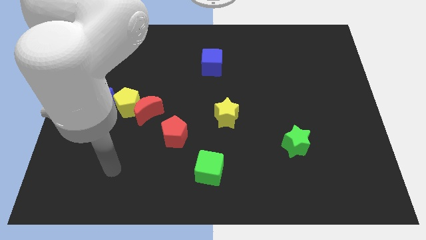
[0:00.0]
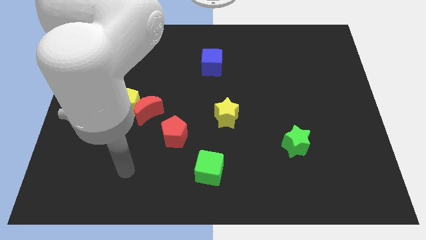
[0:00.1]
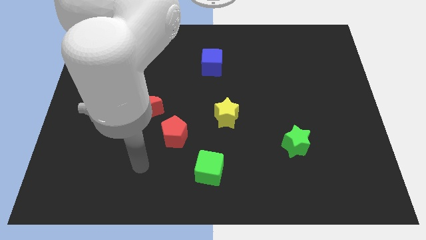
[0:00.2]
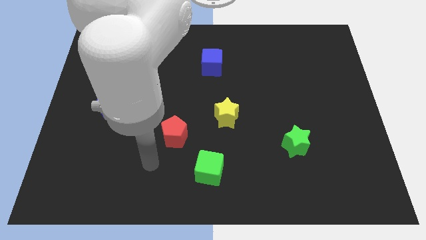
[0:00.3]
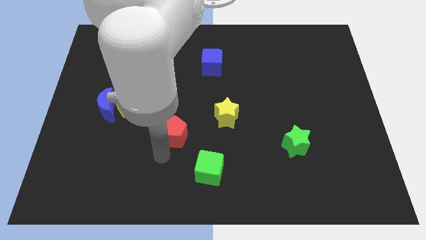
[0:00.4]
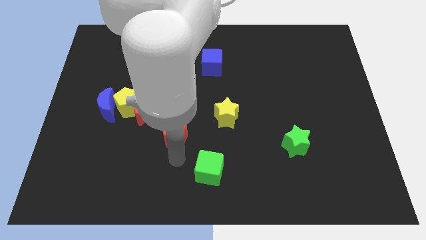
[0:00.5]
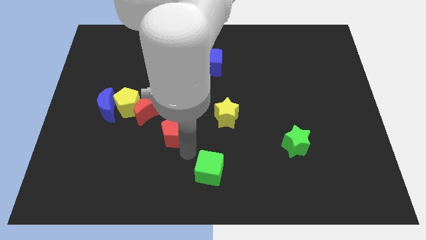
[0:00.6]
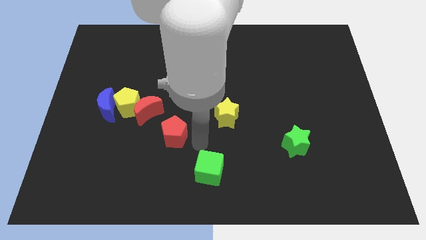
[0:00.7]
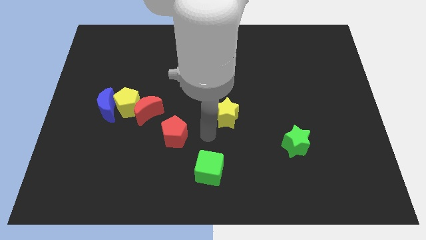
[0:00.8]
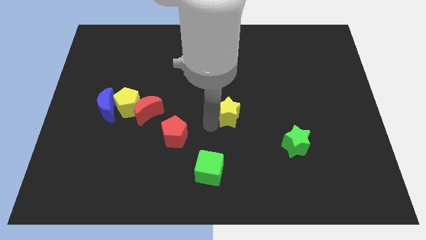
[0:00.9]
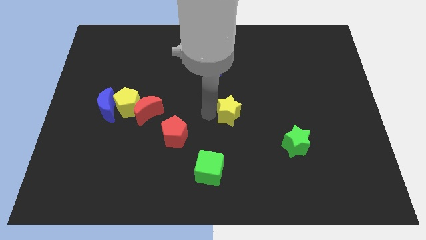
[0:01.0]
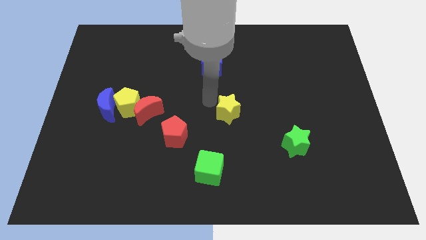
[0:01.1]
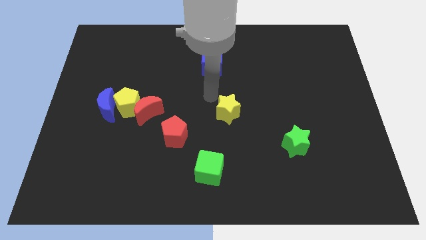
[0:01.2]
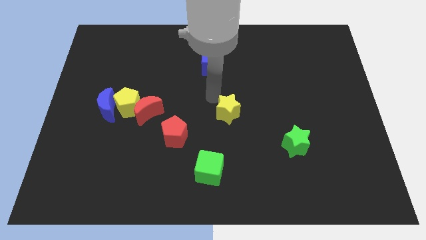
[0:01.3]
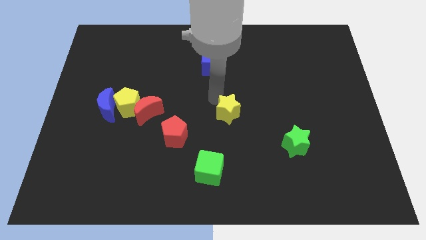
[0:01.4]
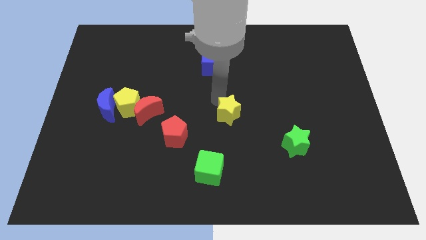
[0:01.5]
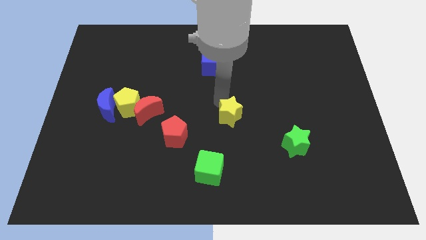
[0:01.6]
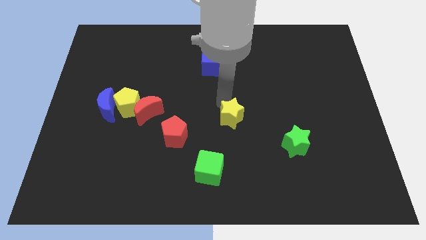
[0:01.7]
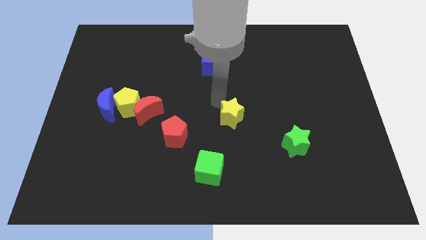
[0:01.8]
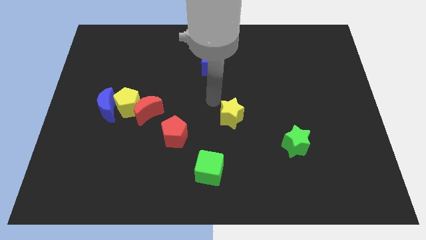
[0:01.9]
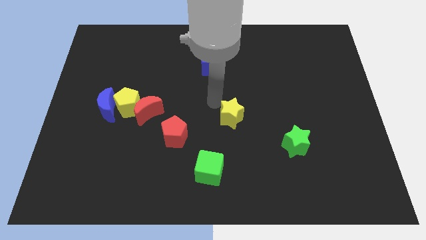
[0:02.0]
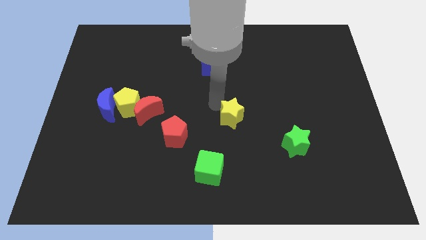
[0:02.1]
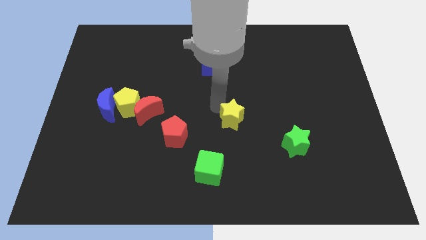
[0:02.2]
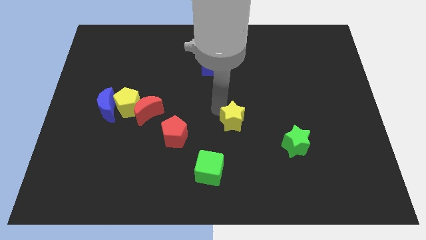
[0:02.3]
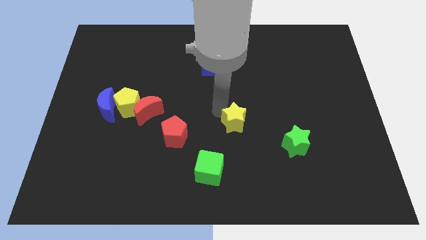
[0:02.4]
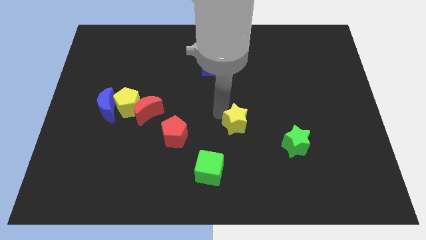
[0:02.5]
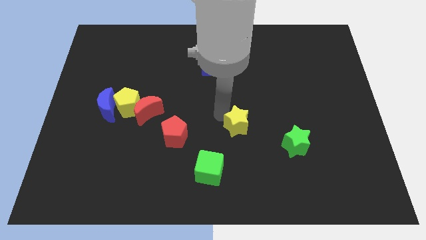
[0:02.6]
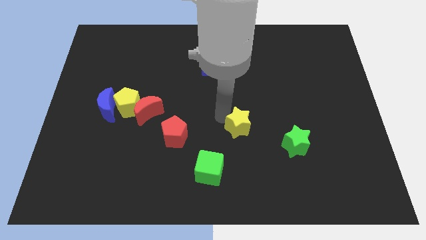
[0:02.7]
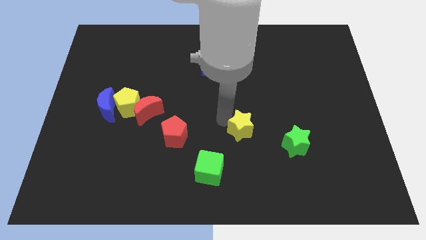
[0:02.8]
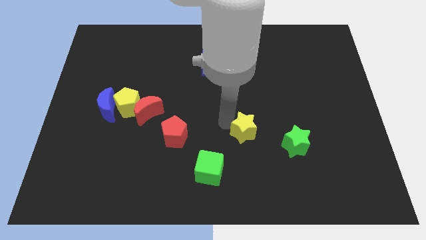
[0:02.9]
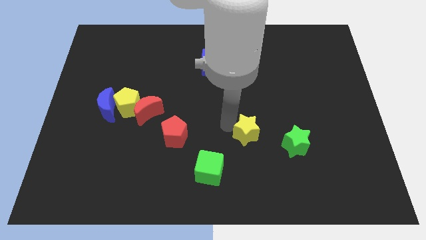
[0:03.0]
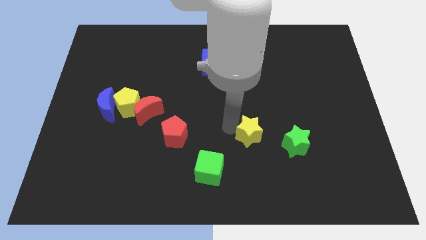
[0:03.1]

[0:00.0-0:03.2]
move the yellow star down and to the right a little

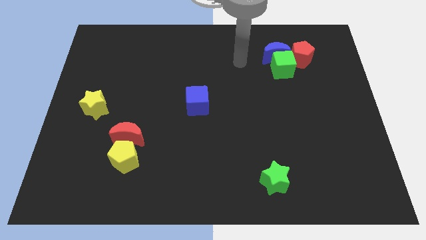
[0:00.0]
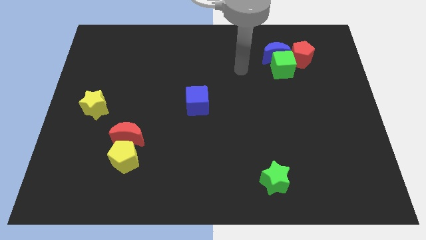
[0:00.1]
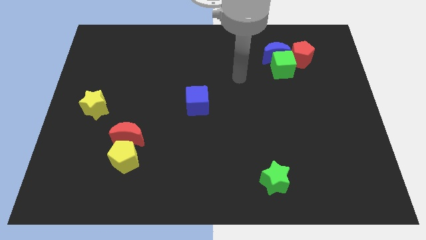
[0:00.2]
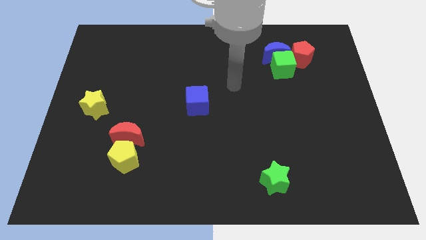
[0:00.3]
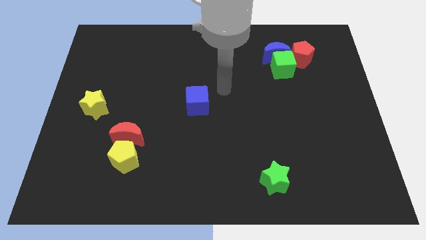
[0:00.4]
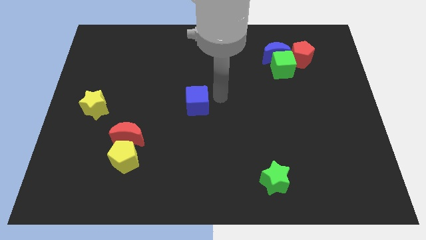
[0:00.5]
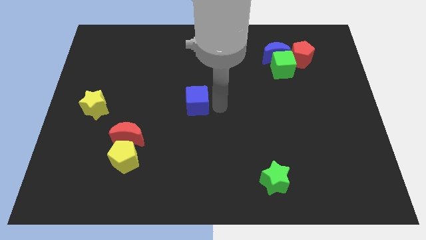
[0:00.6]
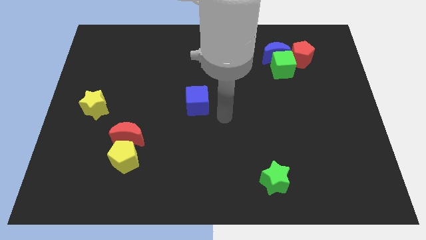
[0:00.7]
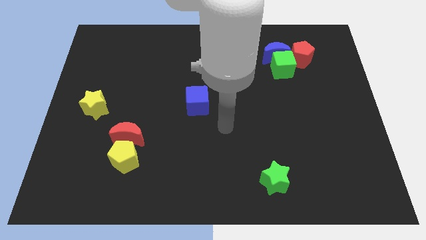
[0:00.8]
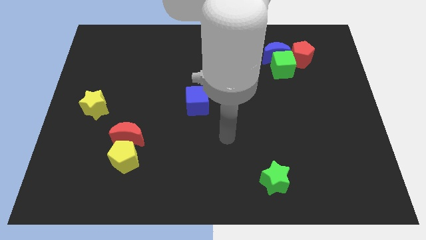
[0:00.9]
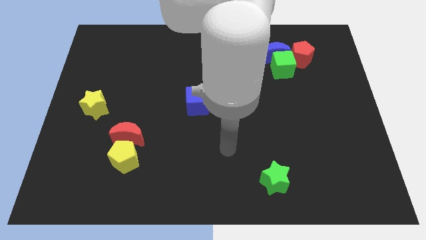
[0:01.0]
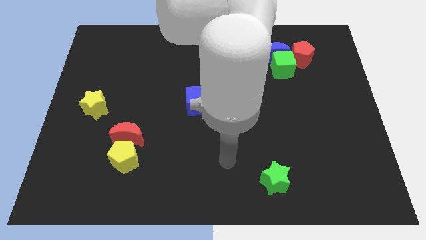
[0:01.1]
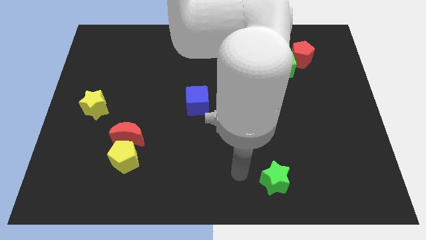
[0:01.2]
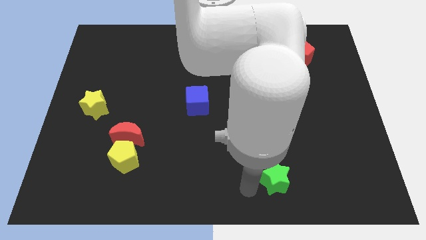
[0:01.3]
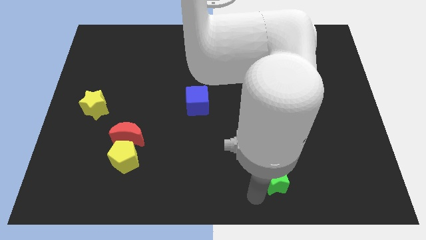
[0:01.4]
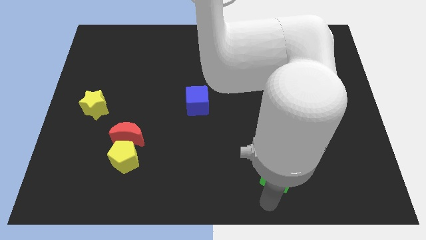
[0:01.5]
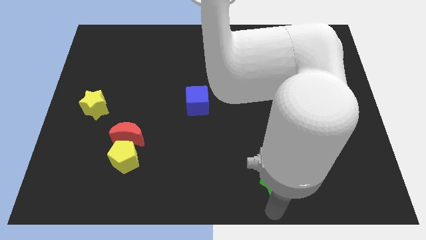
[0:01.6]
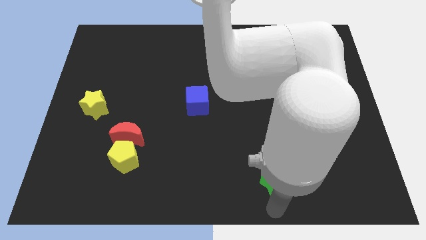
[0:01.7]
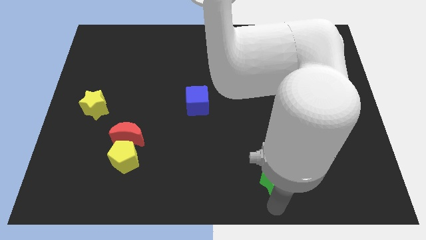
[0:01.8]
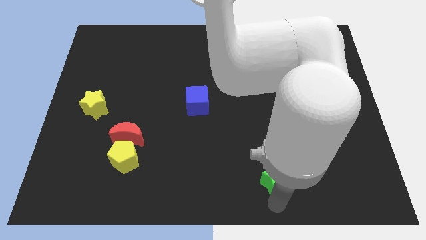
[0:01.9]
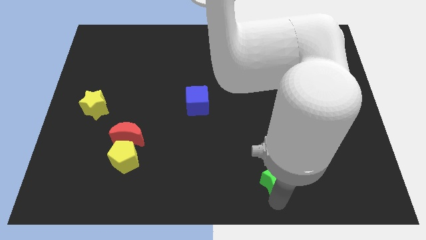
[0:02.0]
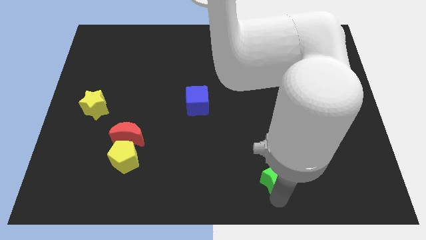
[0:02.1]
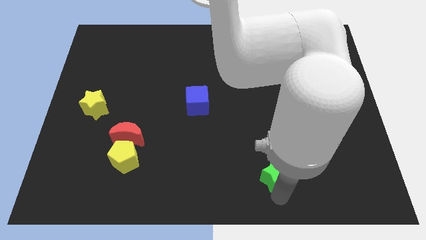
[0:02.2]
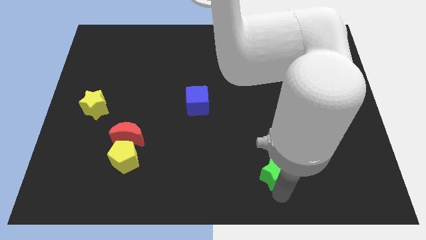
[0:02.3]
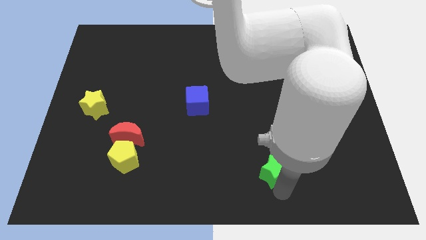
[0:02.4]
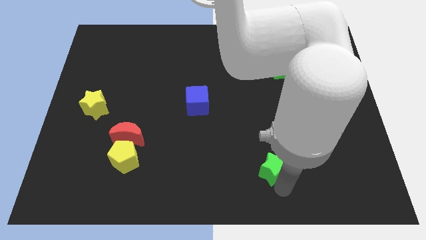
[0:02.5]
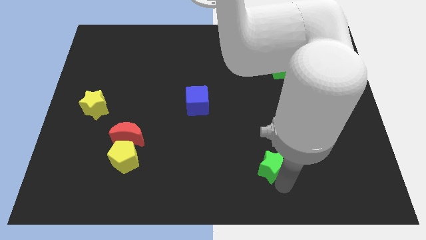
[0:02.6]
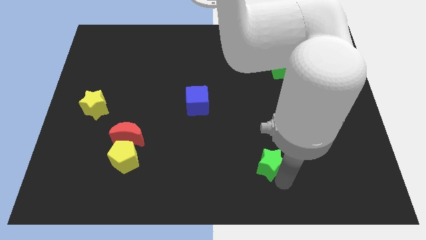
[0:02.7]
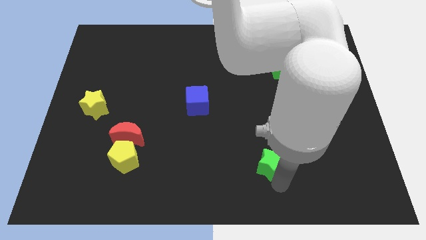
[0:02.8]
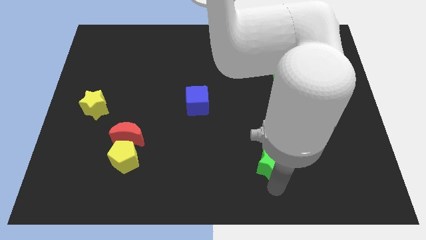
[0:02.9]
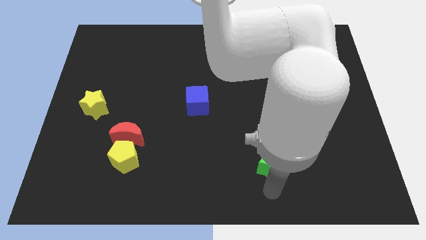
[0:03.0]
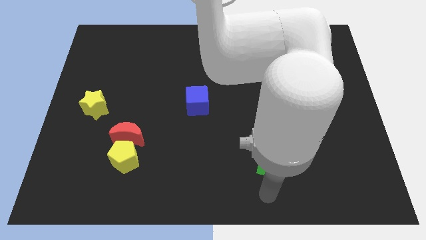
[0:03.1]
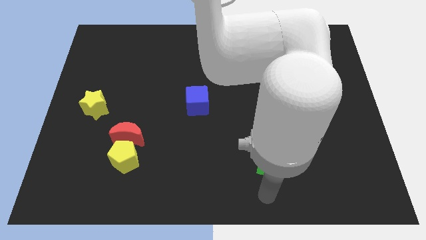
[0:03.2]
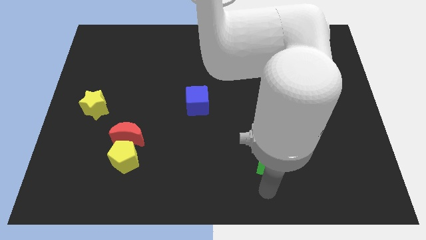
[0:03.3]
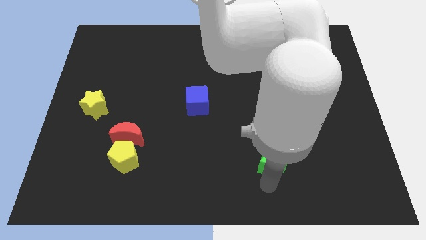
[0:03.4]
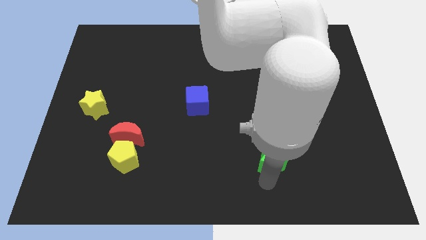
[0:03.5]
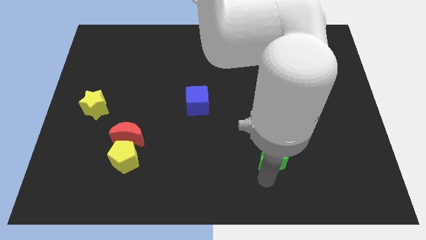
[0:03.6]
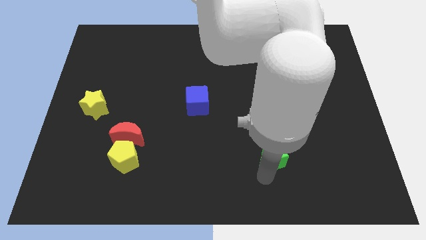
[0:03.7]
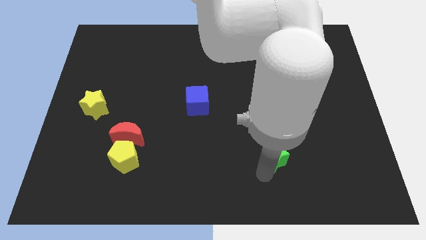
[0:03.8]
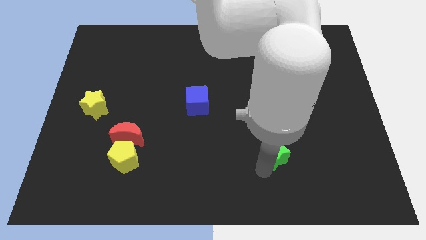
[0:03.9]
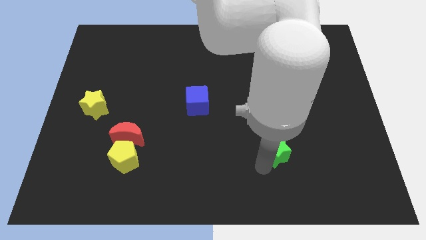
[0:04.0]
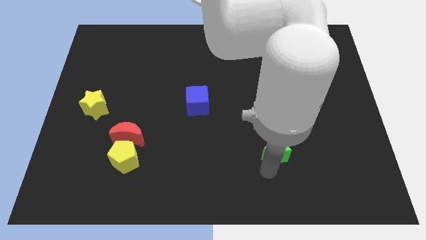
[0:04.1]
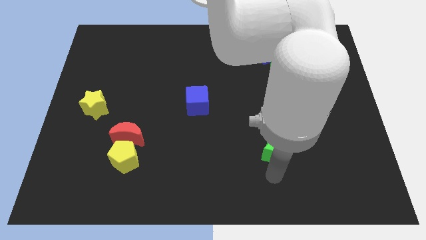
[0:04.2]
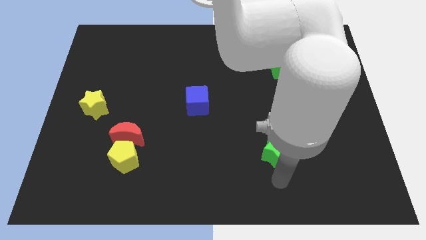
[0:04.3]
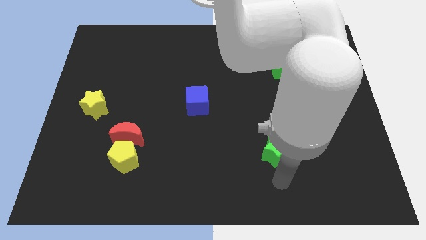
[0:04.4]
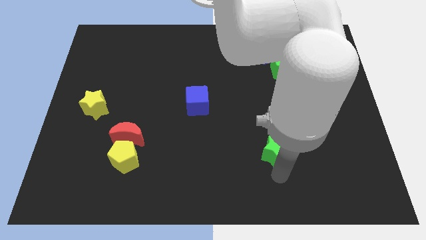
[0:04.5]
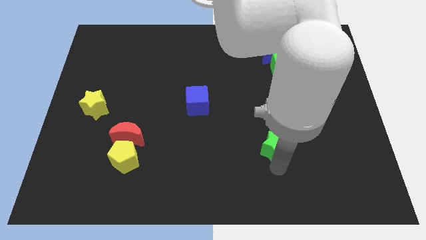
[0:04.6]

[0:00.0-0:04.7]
move the green star upwards a bit

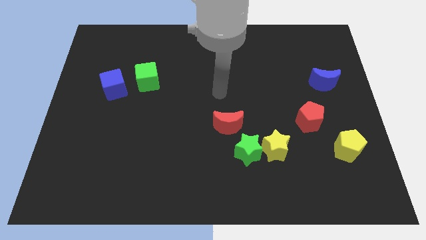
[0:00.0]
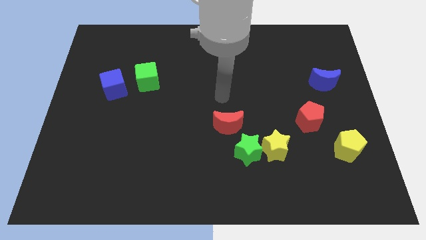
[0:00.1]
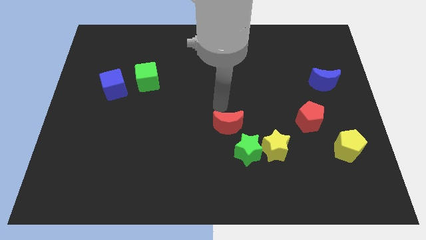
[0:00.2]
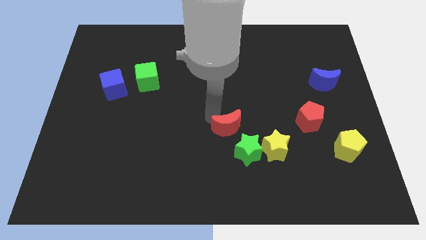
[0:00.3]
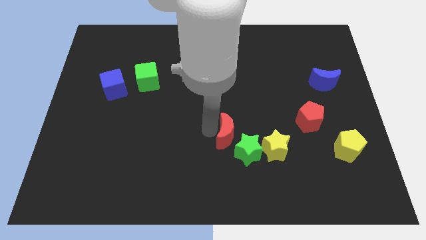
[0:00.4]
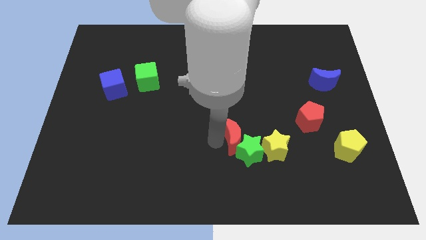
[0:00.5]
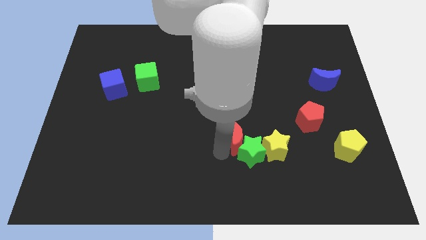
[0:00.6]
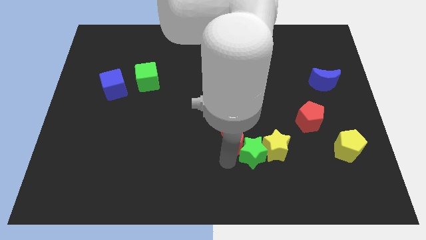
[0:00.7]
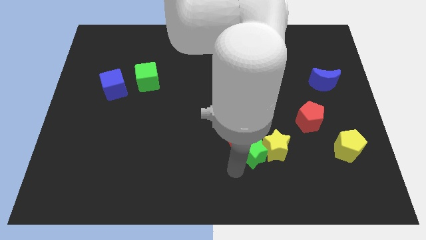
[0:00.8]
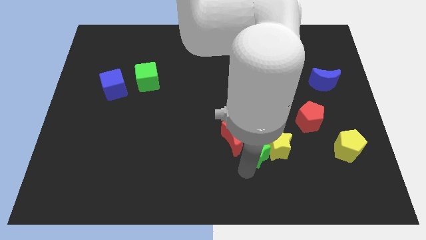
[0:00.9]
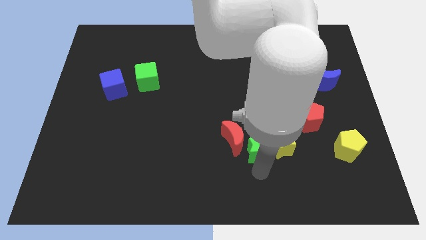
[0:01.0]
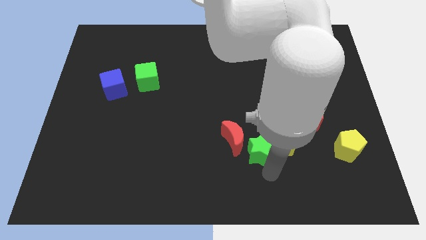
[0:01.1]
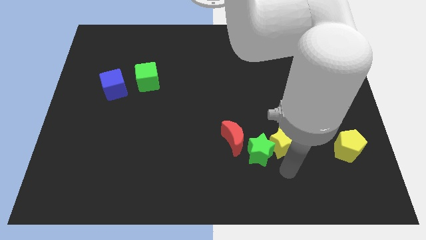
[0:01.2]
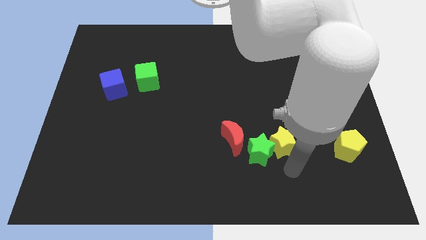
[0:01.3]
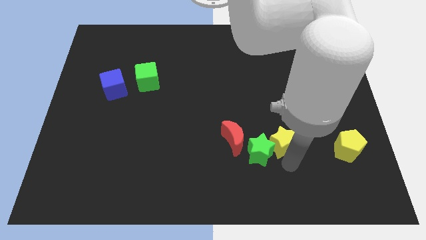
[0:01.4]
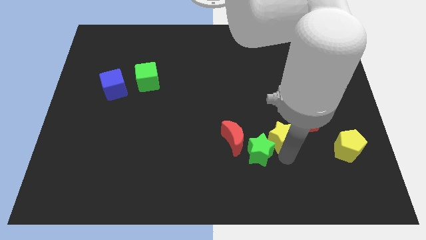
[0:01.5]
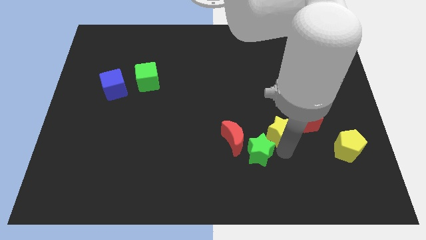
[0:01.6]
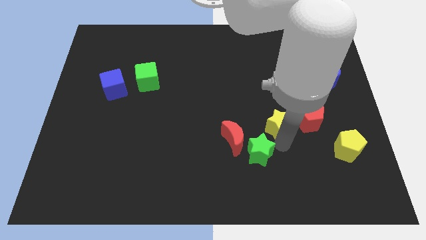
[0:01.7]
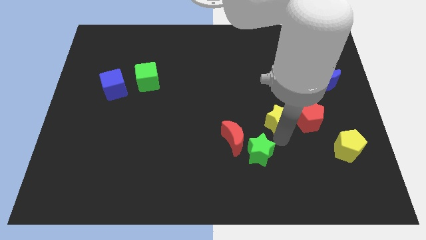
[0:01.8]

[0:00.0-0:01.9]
slightly slide the yellow star upwards
